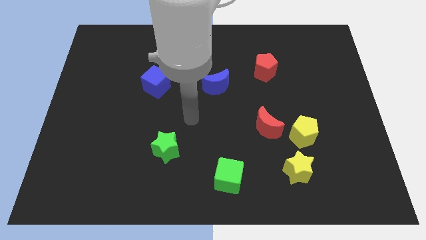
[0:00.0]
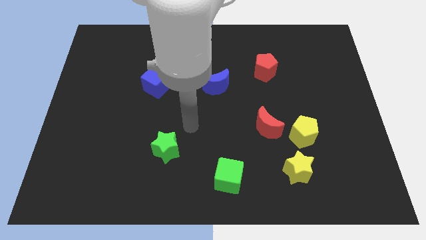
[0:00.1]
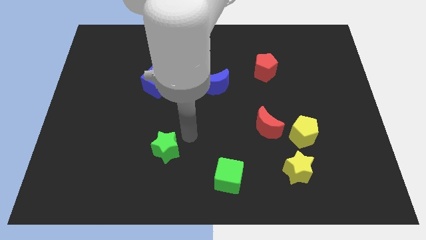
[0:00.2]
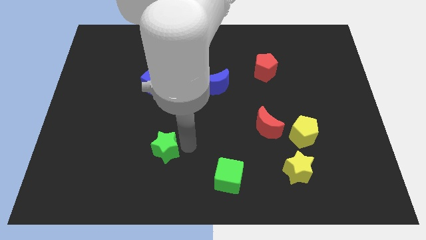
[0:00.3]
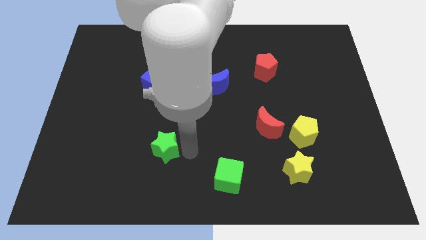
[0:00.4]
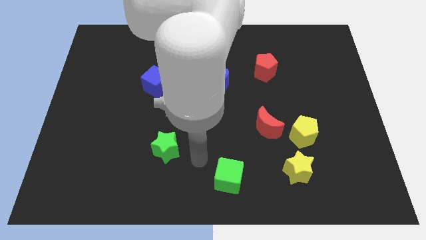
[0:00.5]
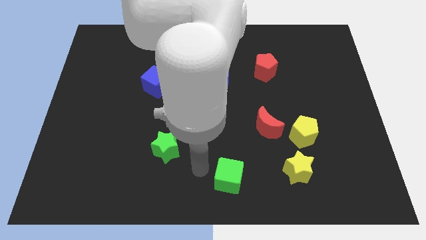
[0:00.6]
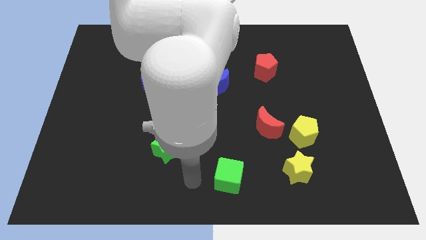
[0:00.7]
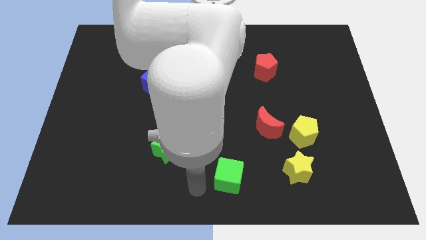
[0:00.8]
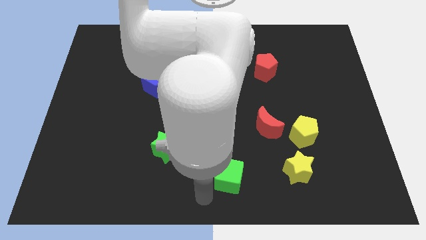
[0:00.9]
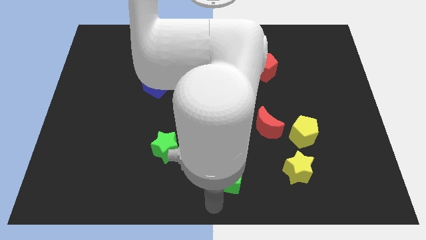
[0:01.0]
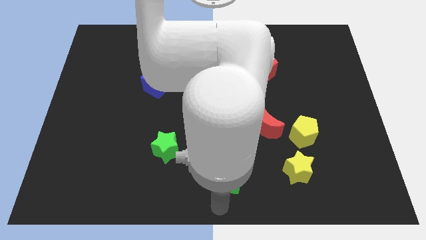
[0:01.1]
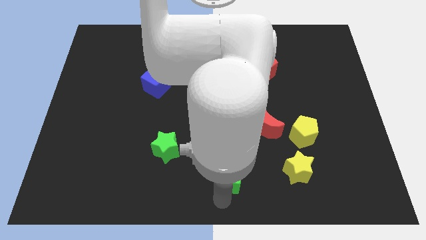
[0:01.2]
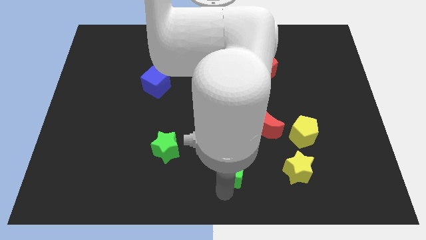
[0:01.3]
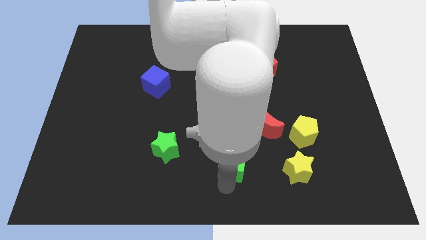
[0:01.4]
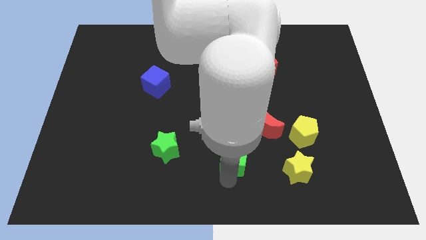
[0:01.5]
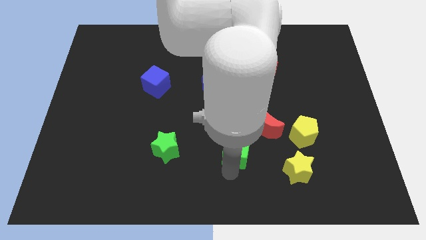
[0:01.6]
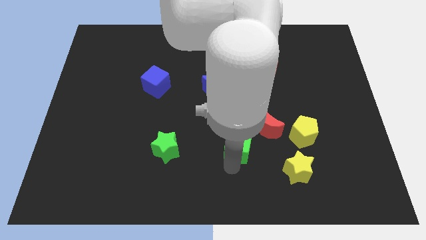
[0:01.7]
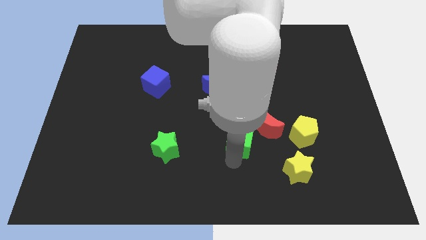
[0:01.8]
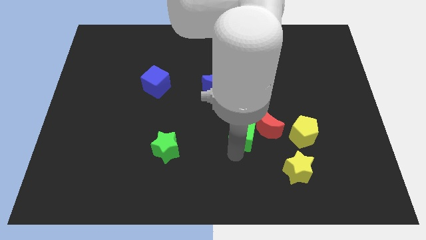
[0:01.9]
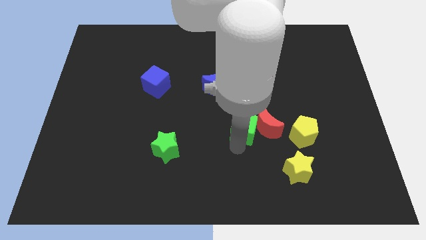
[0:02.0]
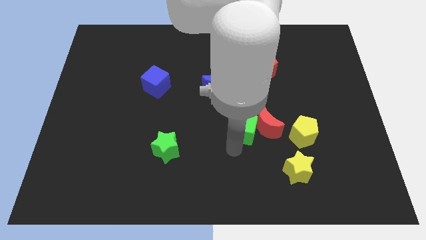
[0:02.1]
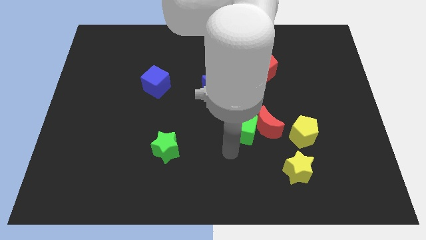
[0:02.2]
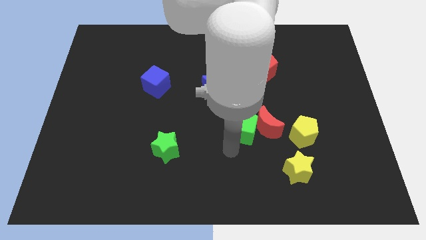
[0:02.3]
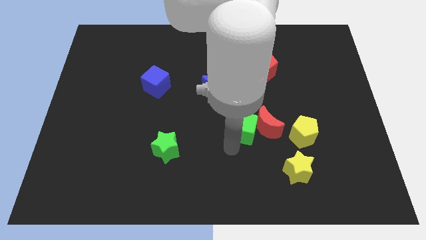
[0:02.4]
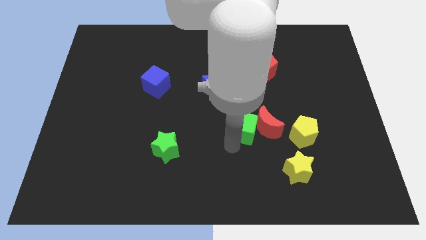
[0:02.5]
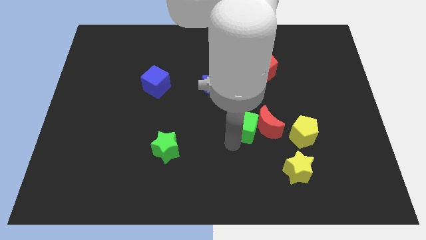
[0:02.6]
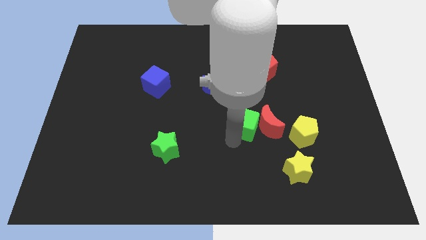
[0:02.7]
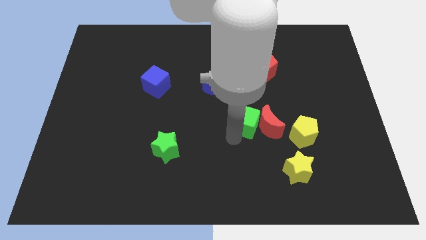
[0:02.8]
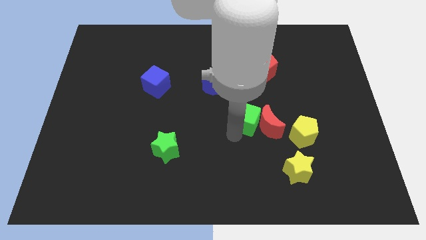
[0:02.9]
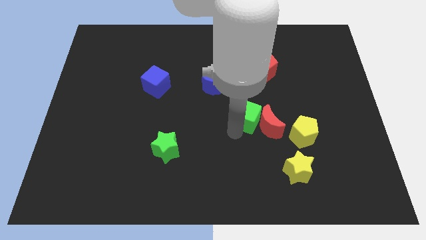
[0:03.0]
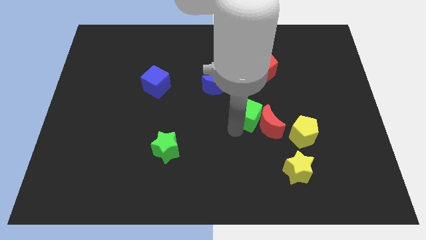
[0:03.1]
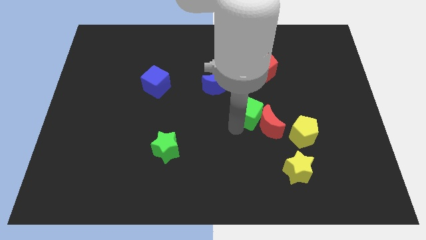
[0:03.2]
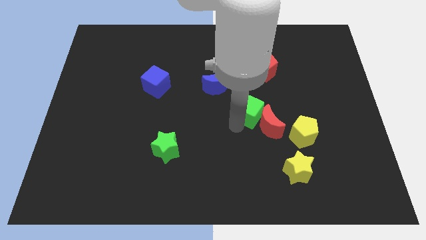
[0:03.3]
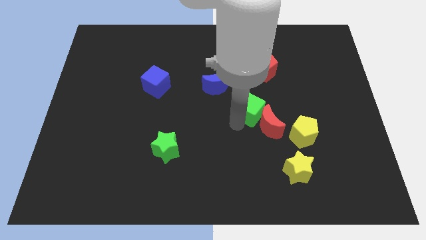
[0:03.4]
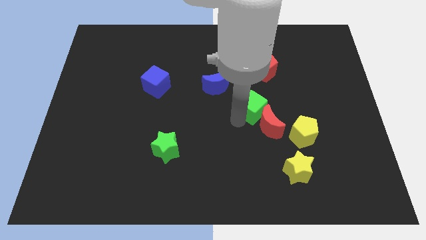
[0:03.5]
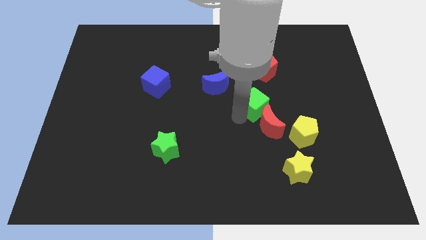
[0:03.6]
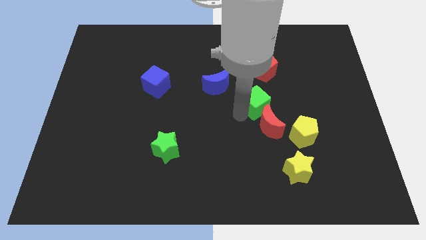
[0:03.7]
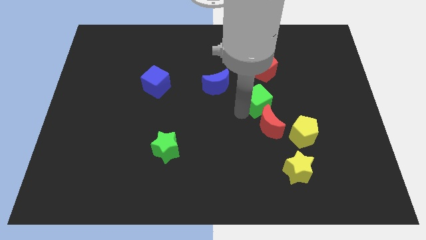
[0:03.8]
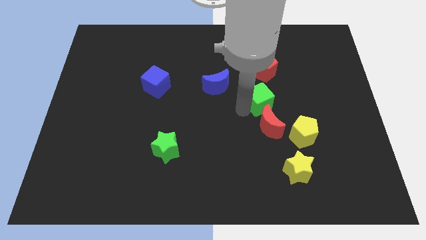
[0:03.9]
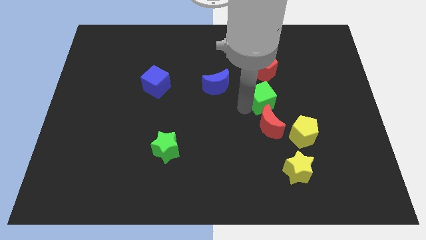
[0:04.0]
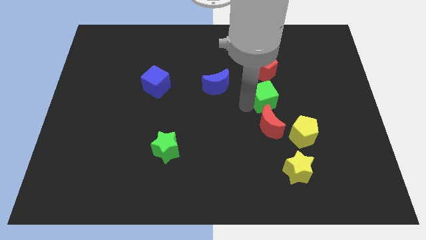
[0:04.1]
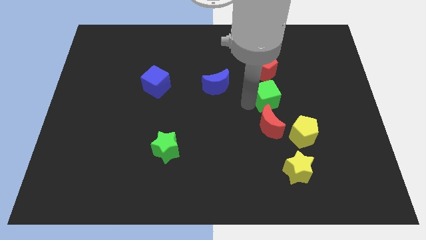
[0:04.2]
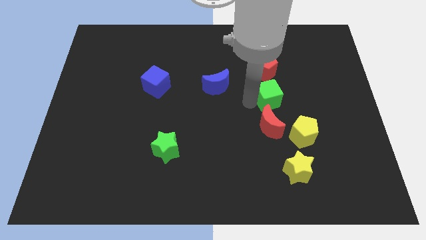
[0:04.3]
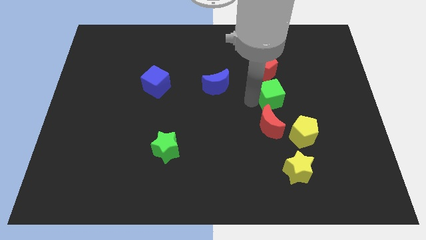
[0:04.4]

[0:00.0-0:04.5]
push the green cube upwards and right

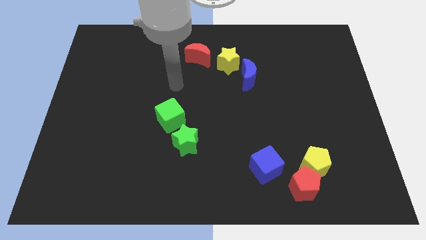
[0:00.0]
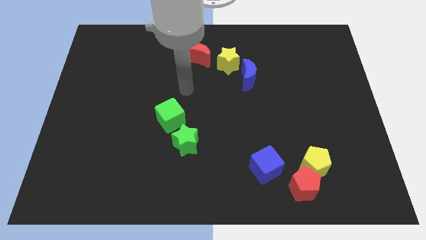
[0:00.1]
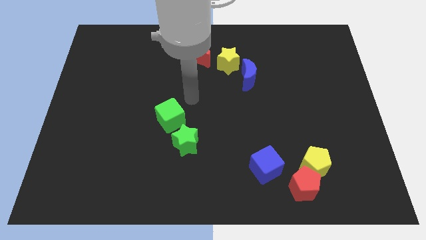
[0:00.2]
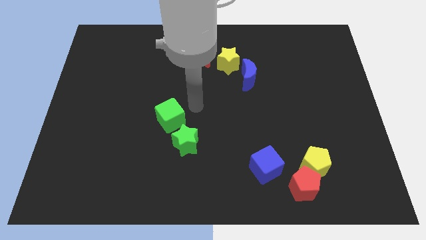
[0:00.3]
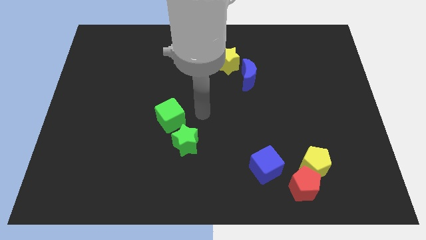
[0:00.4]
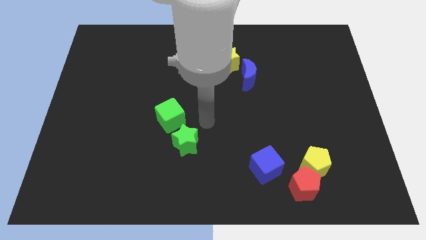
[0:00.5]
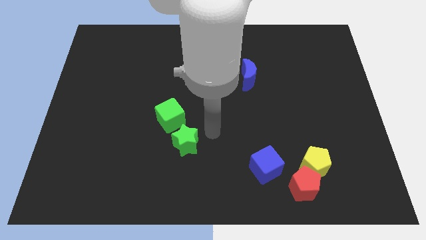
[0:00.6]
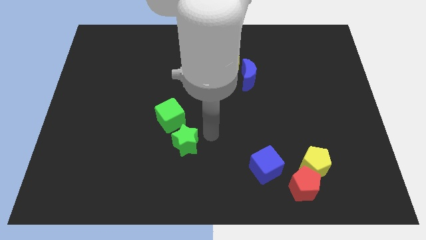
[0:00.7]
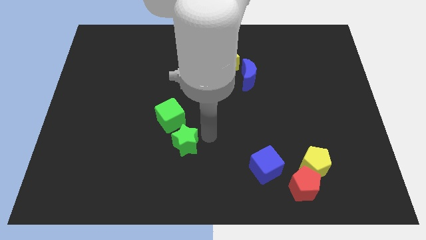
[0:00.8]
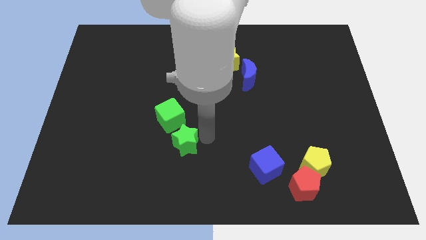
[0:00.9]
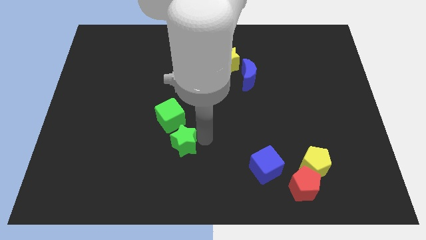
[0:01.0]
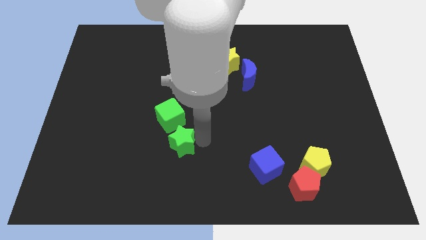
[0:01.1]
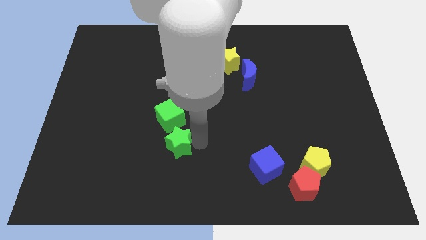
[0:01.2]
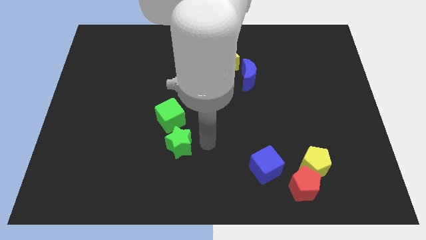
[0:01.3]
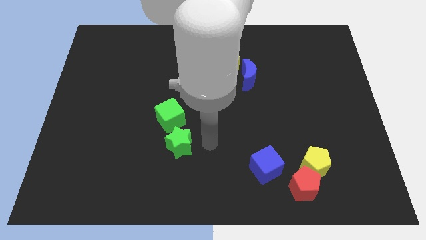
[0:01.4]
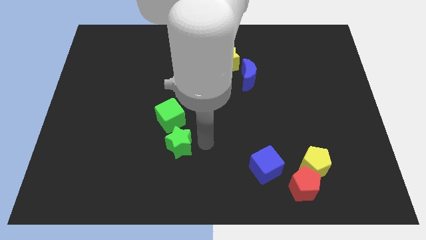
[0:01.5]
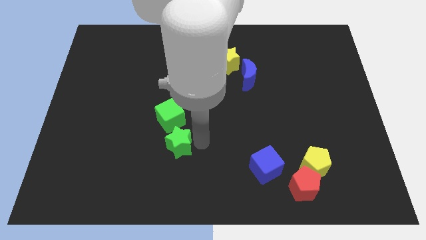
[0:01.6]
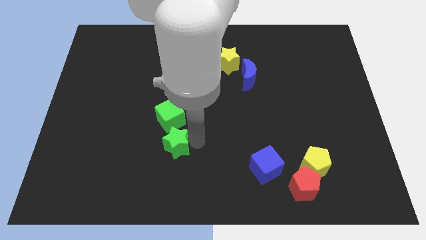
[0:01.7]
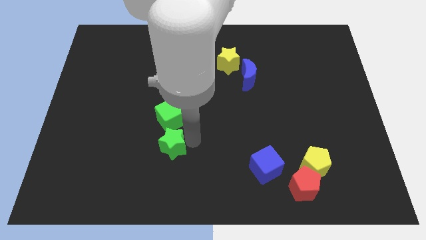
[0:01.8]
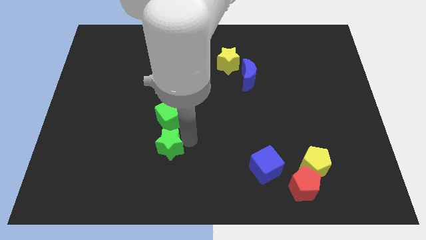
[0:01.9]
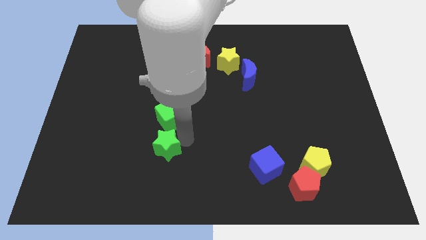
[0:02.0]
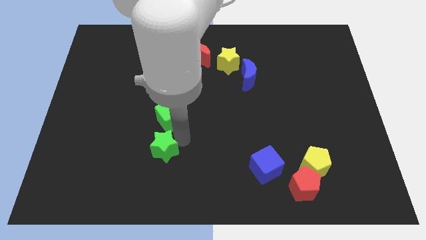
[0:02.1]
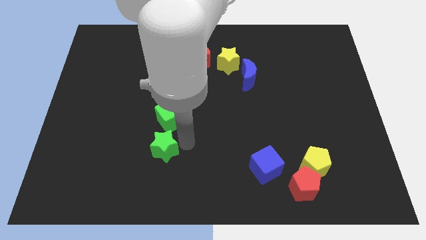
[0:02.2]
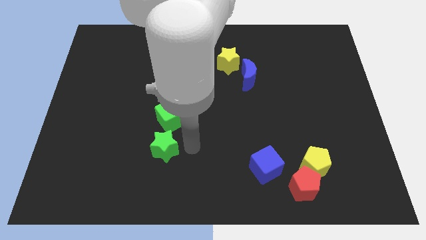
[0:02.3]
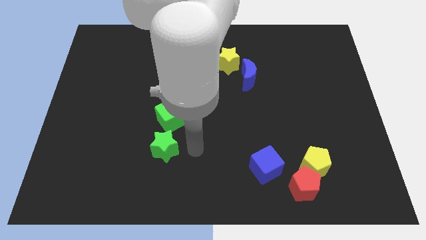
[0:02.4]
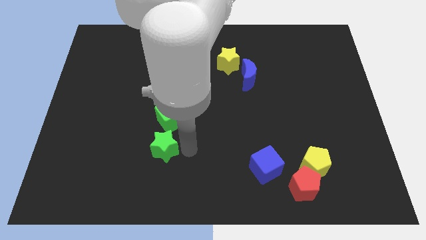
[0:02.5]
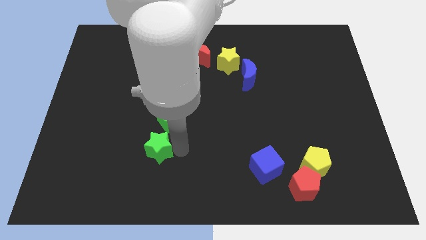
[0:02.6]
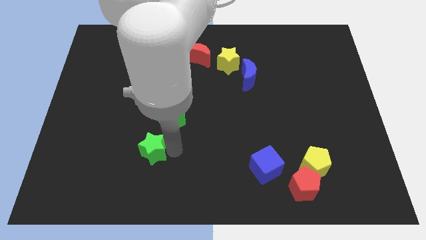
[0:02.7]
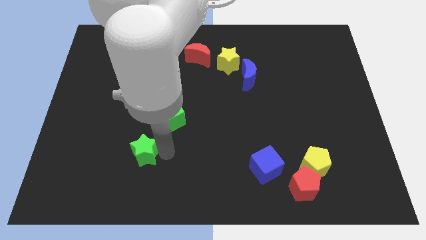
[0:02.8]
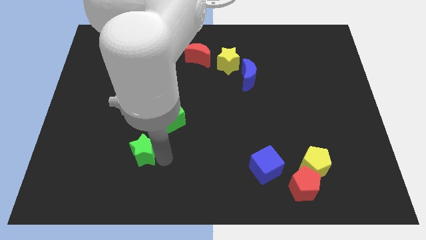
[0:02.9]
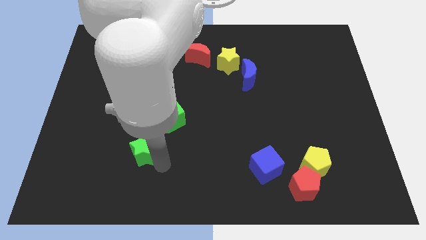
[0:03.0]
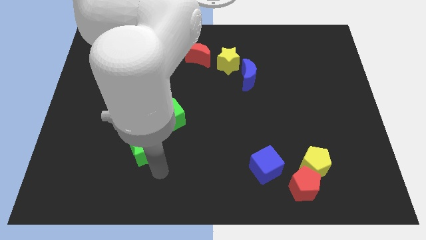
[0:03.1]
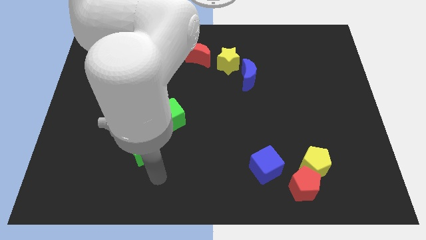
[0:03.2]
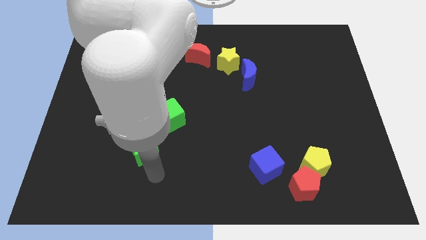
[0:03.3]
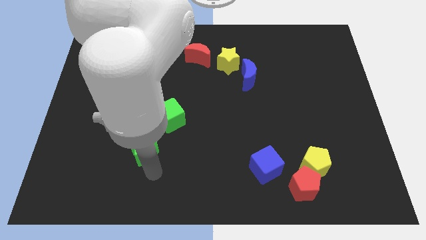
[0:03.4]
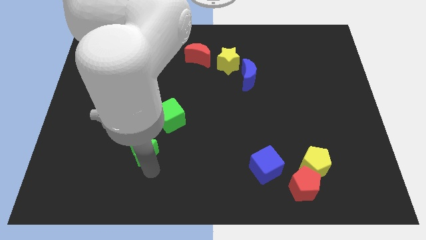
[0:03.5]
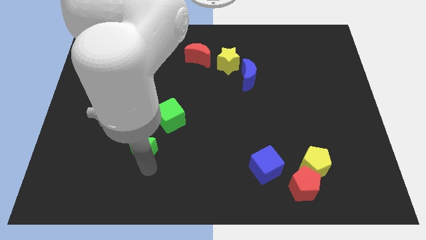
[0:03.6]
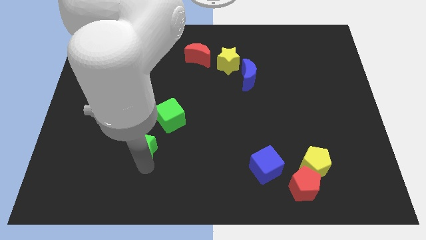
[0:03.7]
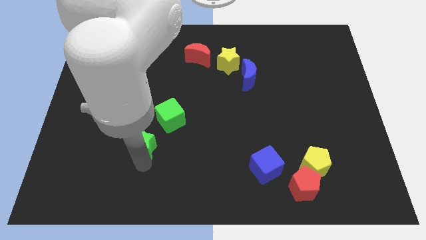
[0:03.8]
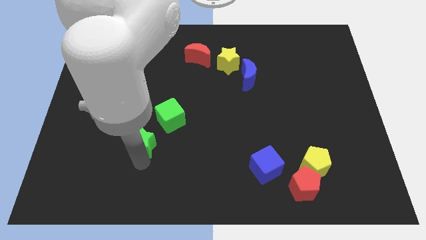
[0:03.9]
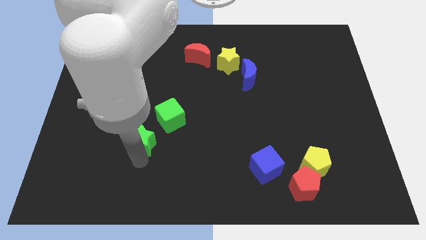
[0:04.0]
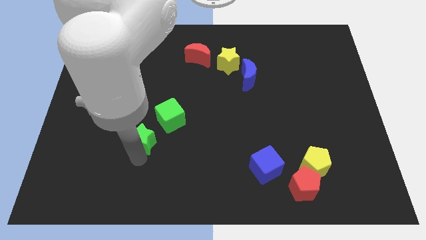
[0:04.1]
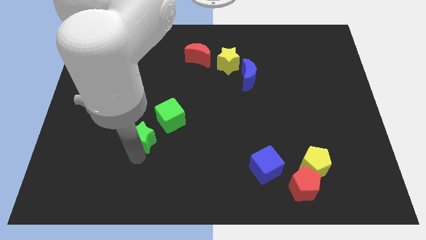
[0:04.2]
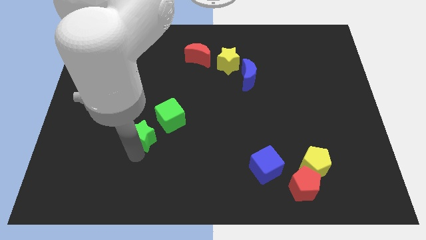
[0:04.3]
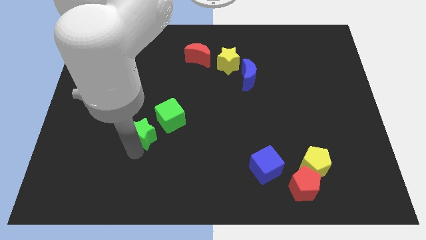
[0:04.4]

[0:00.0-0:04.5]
slide the green star upwards and to the left a bit
